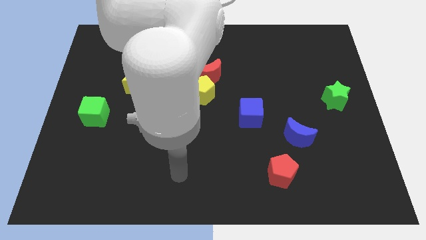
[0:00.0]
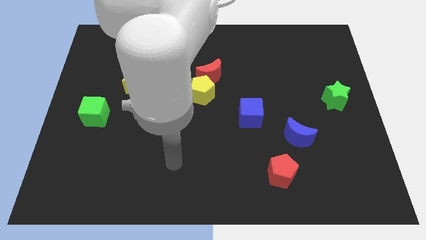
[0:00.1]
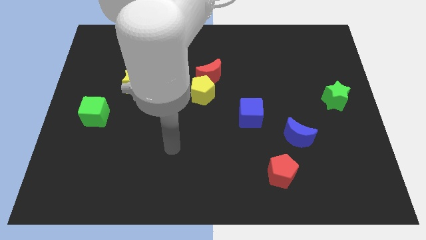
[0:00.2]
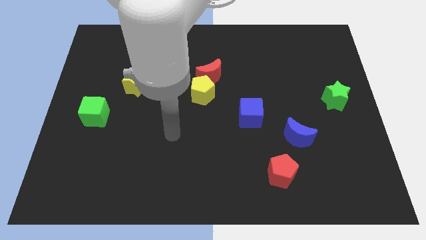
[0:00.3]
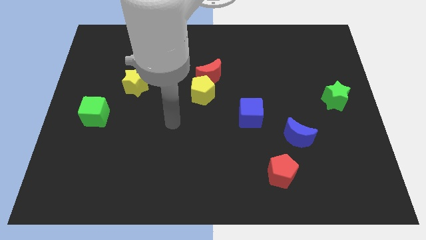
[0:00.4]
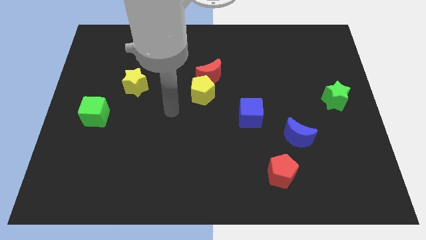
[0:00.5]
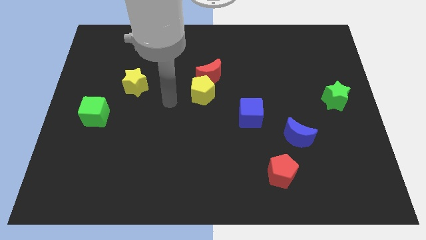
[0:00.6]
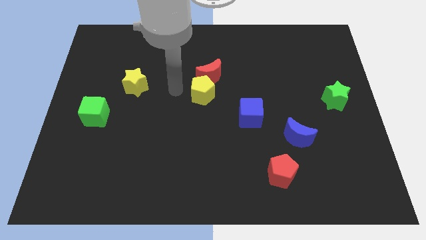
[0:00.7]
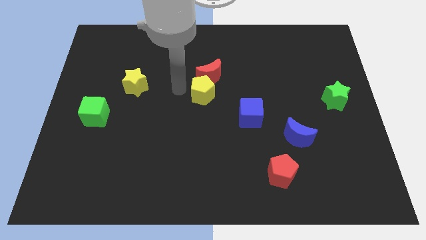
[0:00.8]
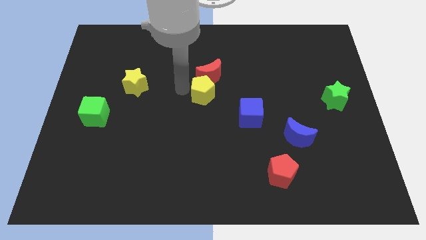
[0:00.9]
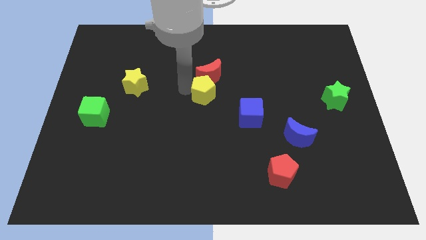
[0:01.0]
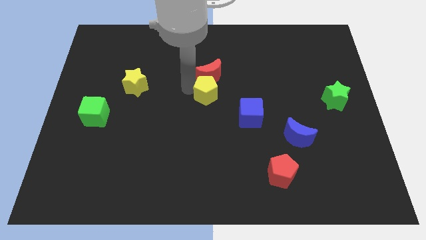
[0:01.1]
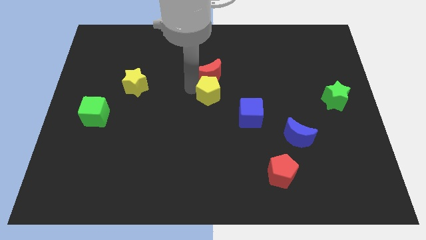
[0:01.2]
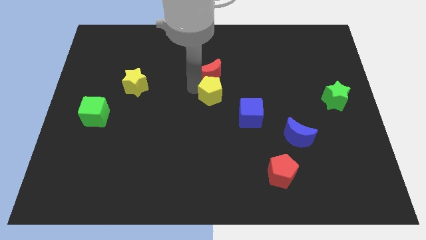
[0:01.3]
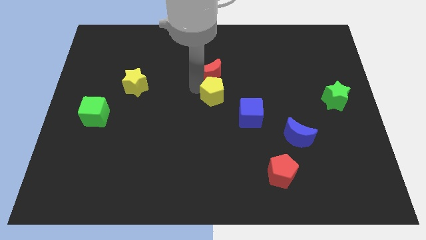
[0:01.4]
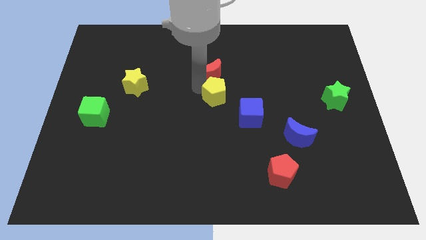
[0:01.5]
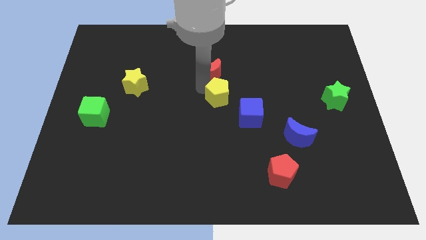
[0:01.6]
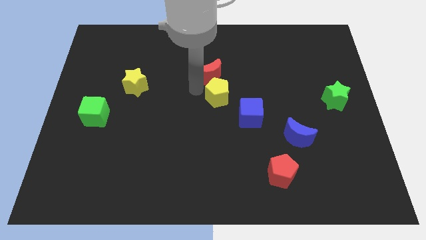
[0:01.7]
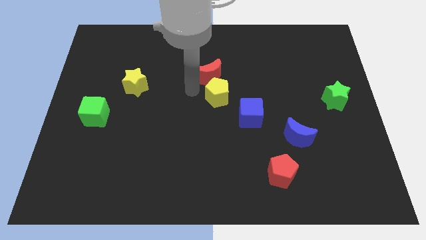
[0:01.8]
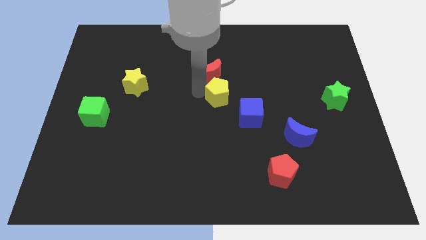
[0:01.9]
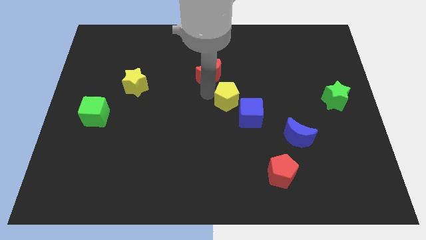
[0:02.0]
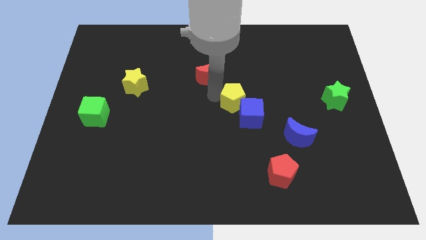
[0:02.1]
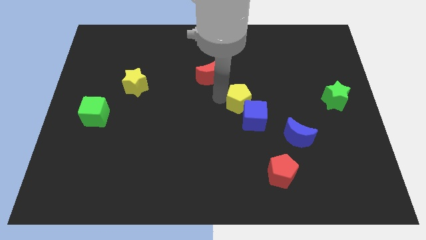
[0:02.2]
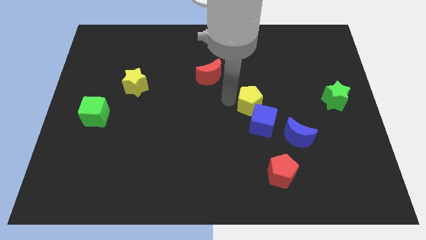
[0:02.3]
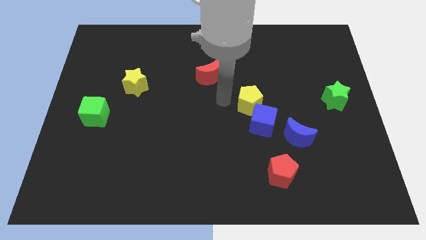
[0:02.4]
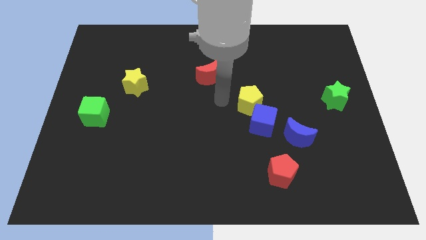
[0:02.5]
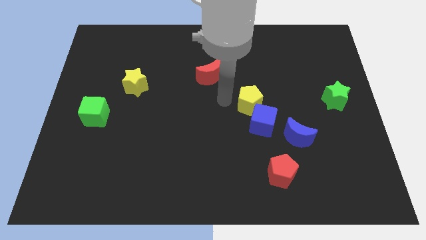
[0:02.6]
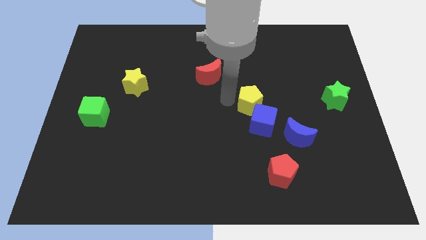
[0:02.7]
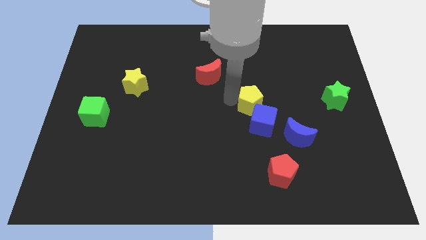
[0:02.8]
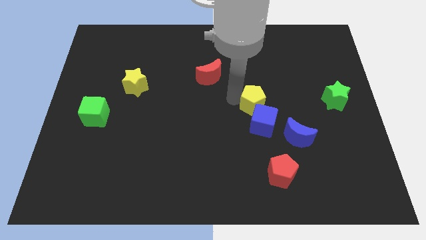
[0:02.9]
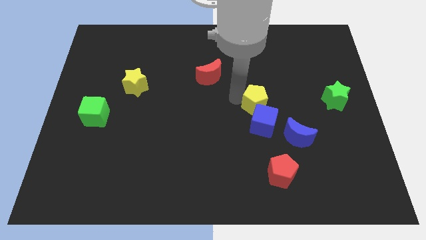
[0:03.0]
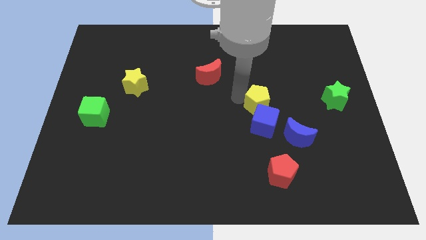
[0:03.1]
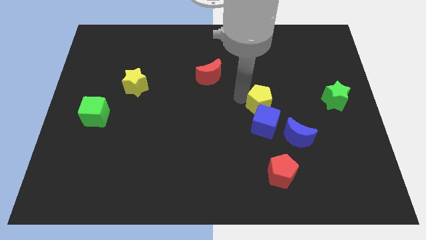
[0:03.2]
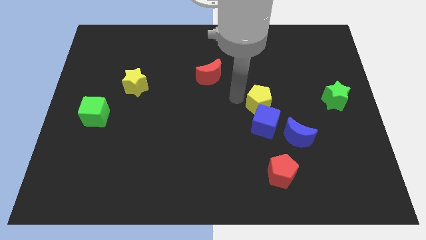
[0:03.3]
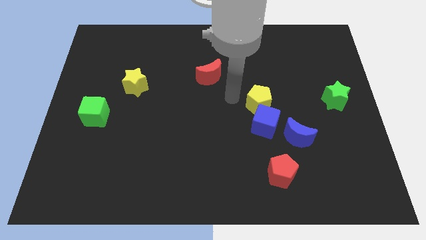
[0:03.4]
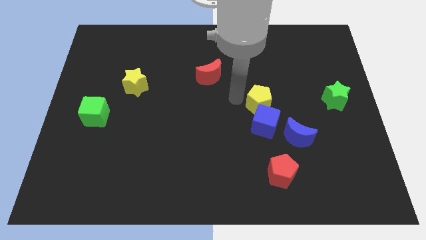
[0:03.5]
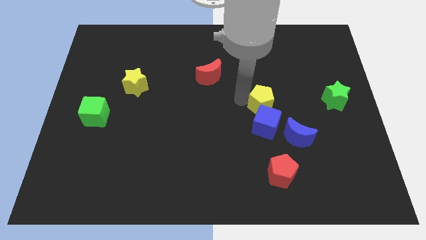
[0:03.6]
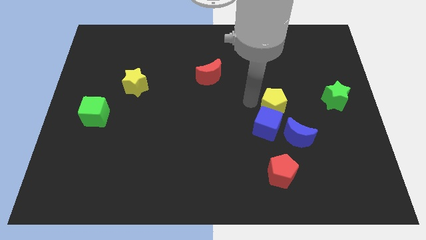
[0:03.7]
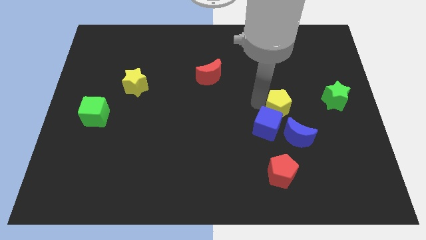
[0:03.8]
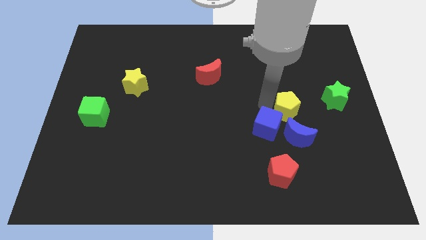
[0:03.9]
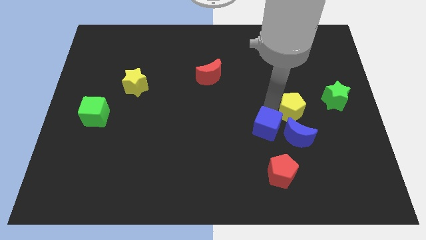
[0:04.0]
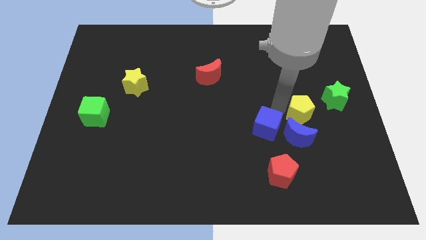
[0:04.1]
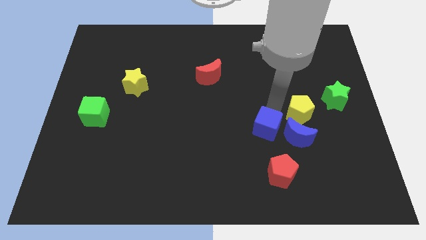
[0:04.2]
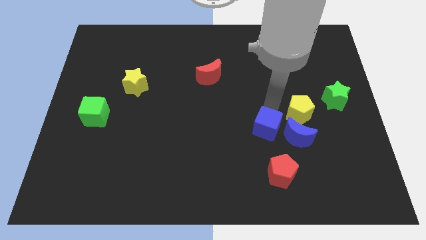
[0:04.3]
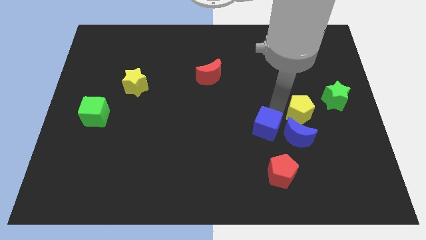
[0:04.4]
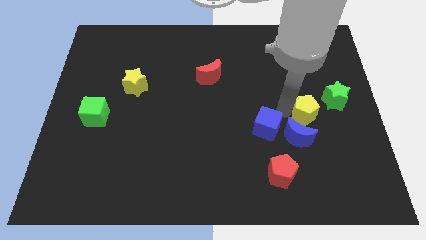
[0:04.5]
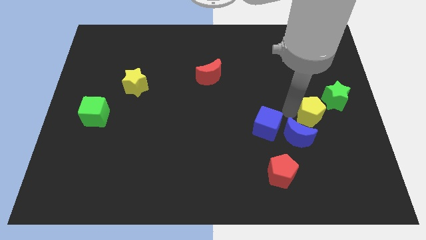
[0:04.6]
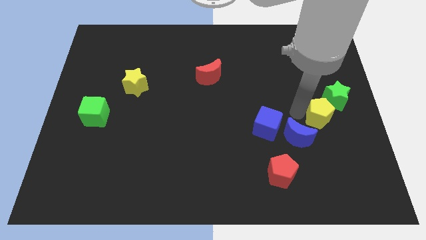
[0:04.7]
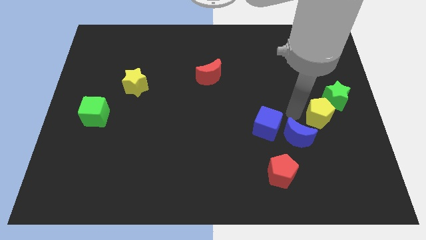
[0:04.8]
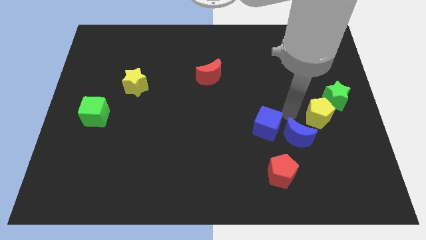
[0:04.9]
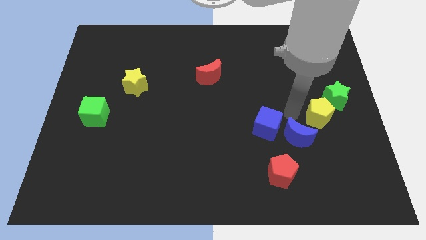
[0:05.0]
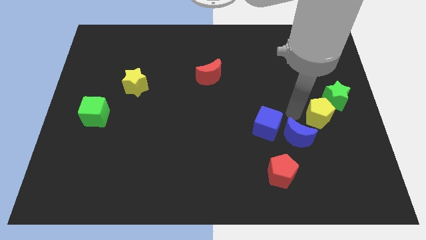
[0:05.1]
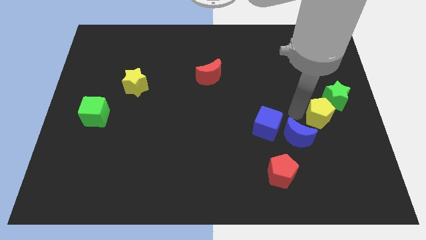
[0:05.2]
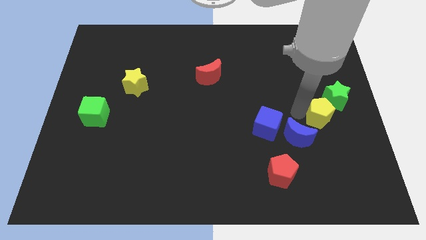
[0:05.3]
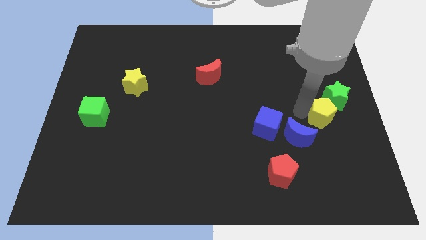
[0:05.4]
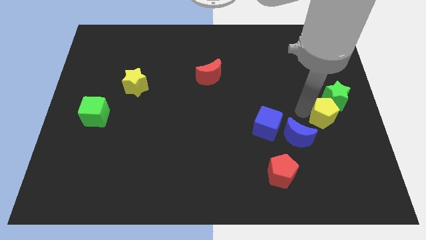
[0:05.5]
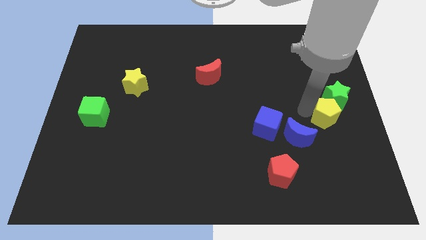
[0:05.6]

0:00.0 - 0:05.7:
slide the yellow pentagon to the center right

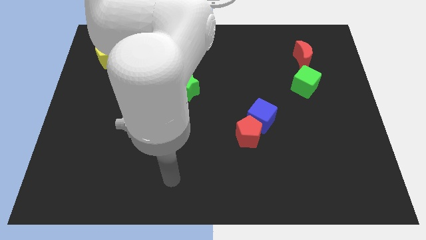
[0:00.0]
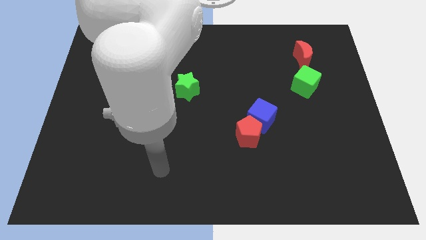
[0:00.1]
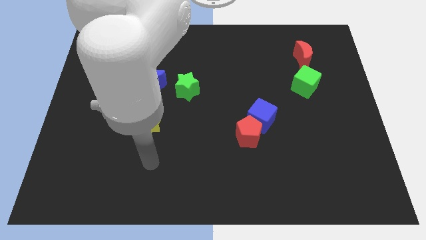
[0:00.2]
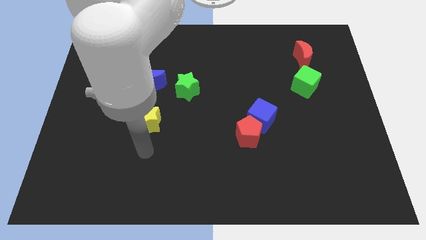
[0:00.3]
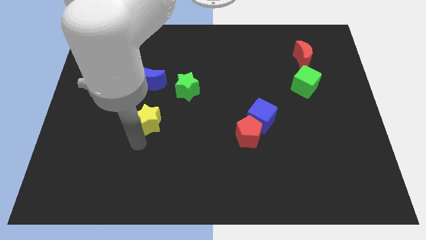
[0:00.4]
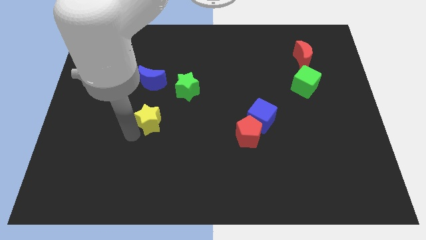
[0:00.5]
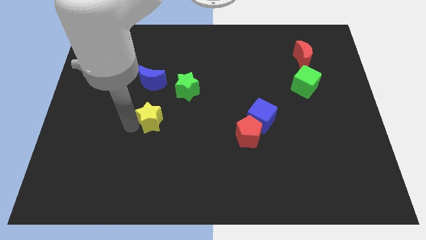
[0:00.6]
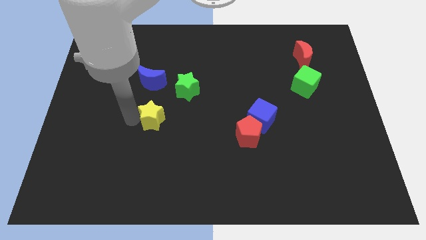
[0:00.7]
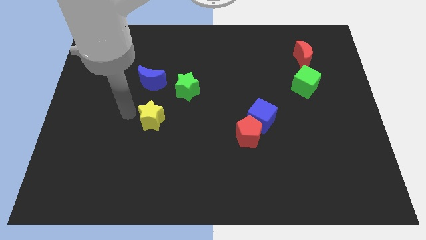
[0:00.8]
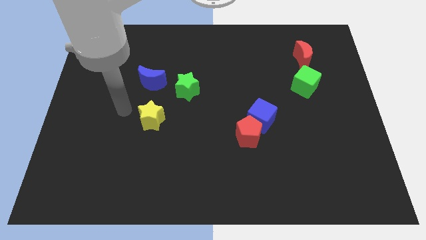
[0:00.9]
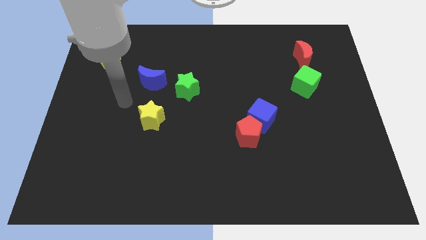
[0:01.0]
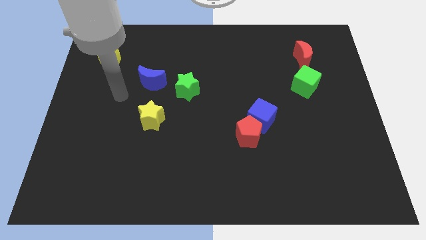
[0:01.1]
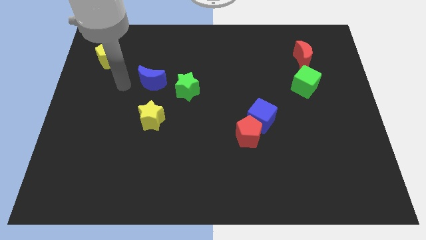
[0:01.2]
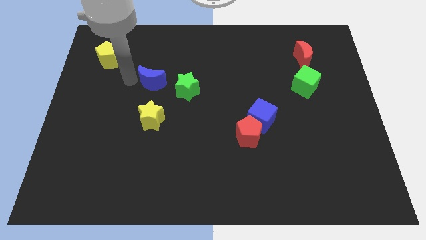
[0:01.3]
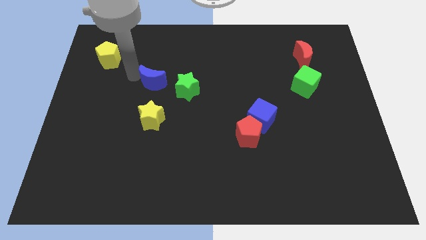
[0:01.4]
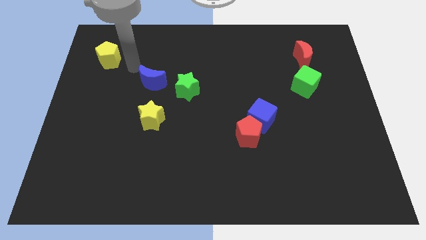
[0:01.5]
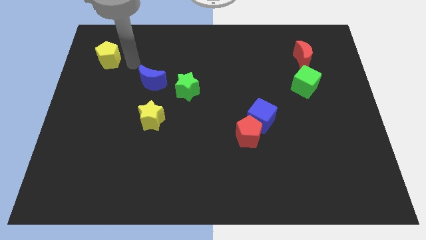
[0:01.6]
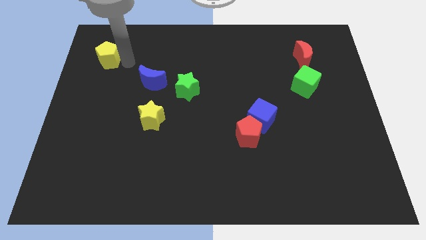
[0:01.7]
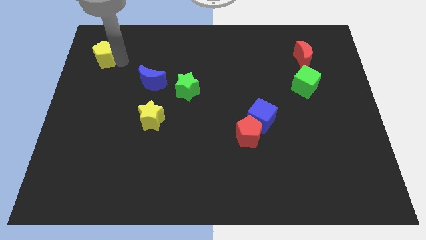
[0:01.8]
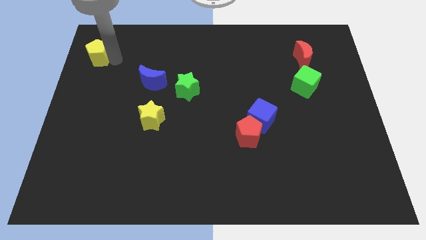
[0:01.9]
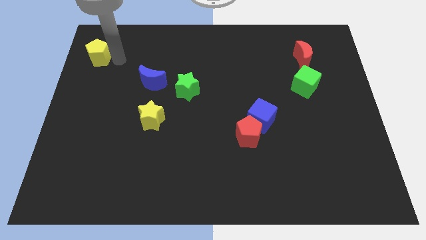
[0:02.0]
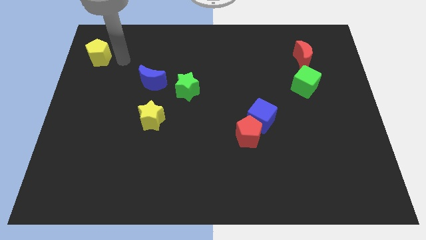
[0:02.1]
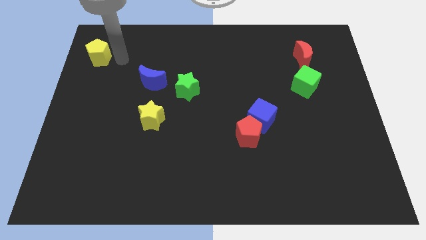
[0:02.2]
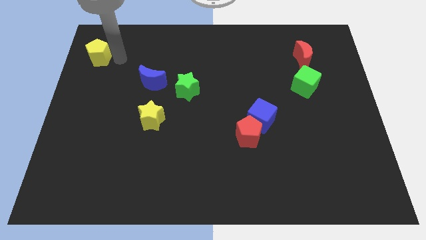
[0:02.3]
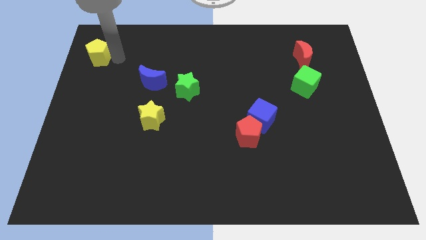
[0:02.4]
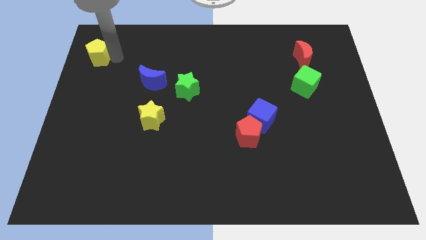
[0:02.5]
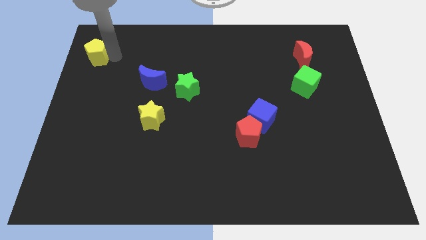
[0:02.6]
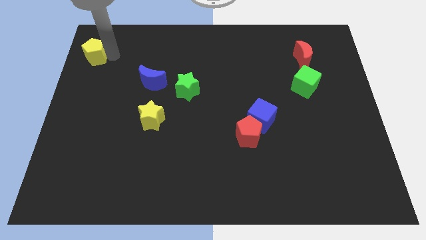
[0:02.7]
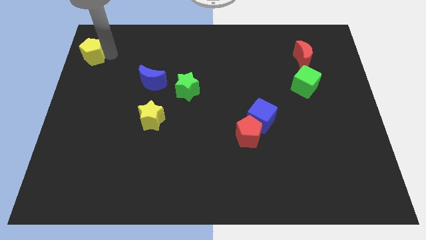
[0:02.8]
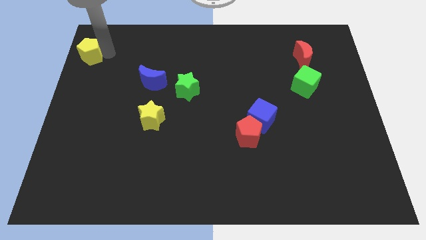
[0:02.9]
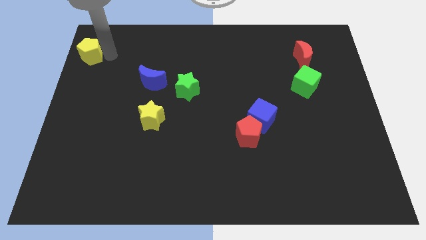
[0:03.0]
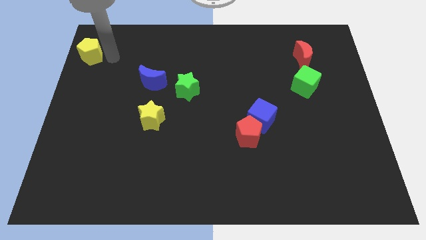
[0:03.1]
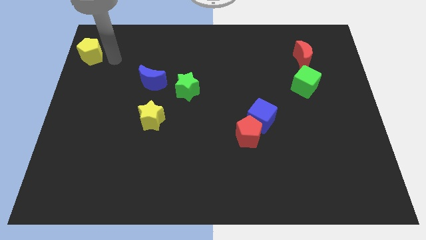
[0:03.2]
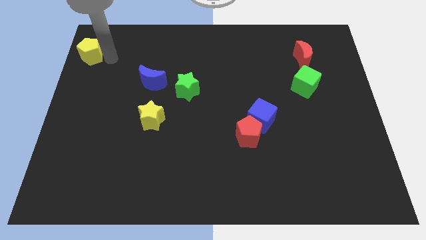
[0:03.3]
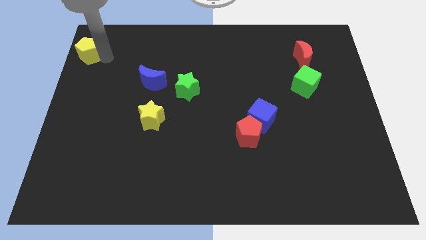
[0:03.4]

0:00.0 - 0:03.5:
push the yellow pentagon to the top left of the board
